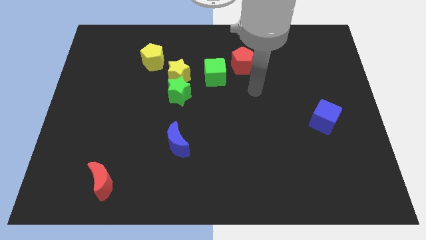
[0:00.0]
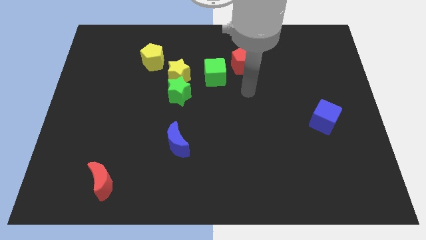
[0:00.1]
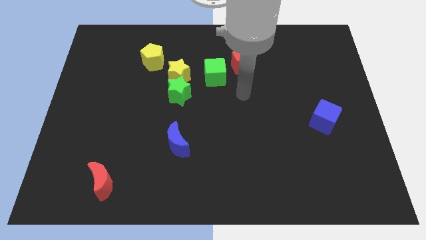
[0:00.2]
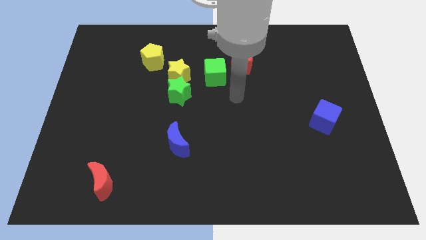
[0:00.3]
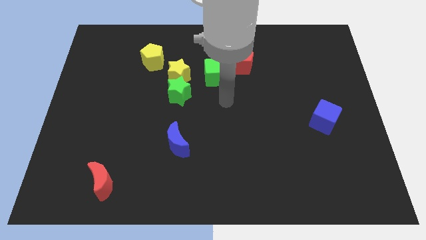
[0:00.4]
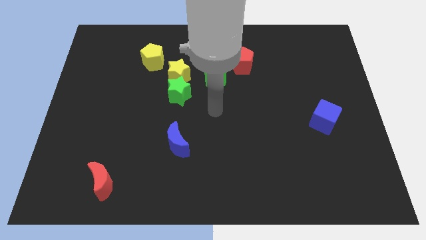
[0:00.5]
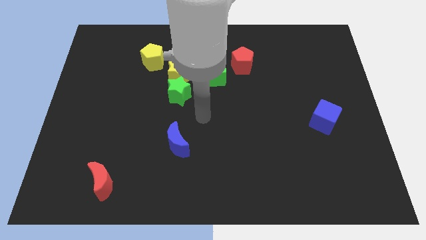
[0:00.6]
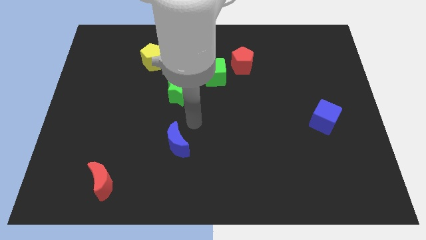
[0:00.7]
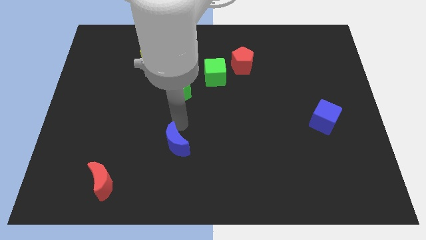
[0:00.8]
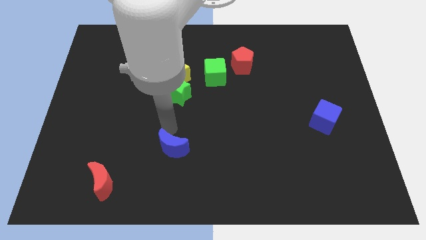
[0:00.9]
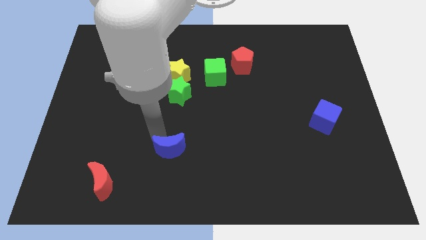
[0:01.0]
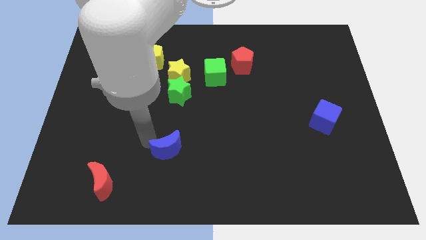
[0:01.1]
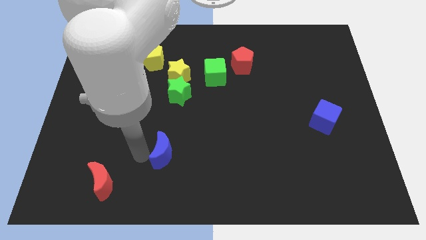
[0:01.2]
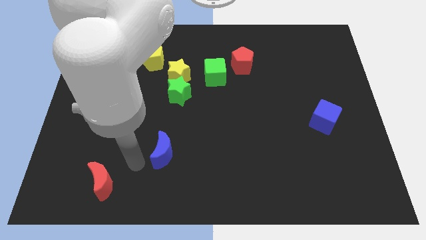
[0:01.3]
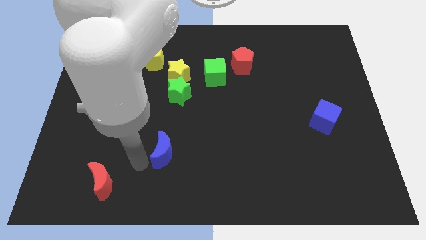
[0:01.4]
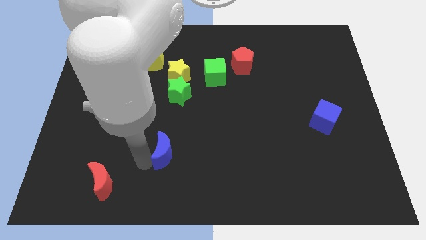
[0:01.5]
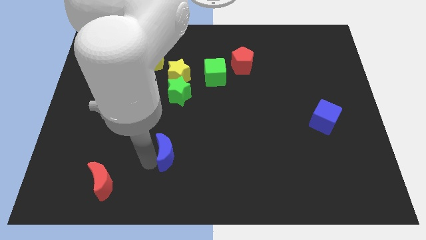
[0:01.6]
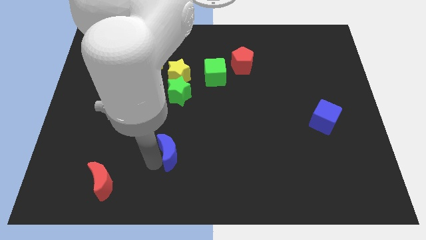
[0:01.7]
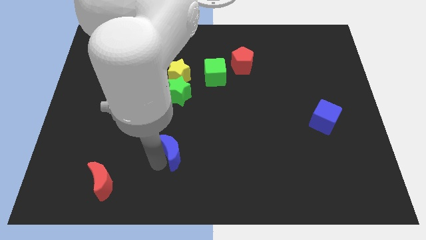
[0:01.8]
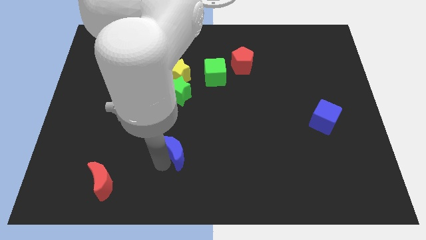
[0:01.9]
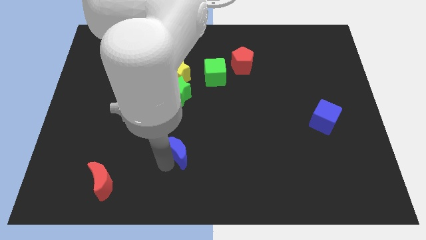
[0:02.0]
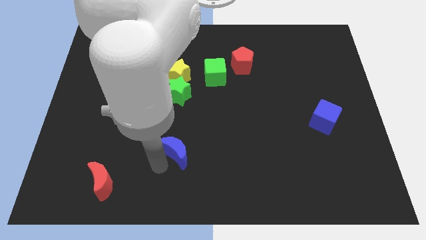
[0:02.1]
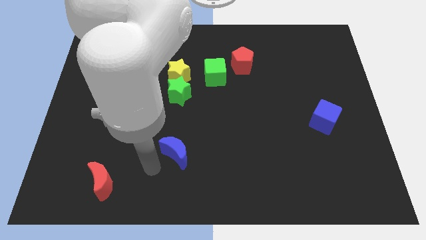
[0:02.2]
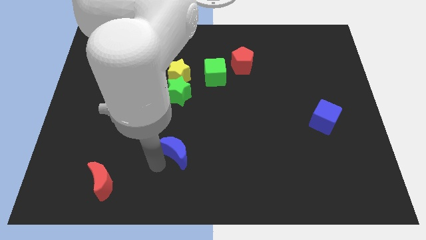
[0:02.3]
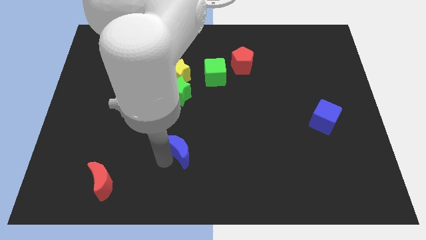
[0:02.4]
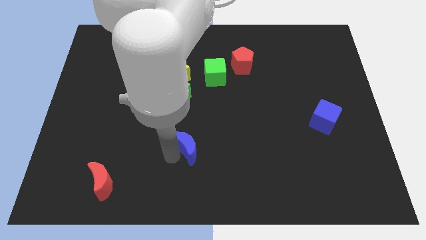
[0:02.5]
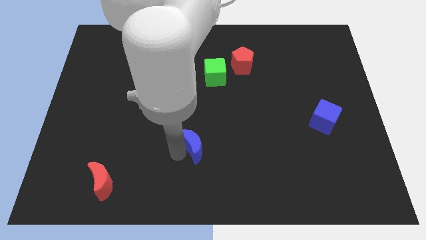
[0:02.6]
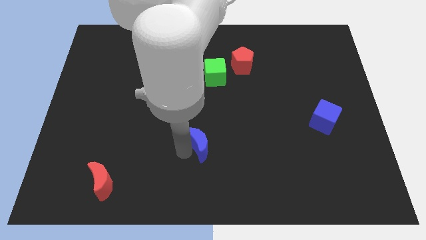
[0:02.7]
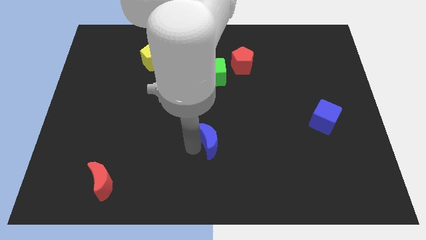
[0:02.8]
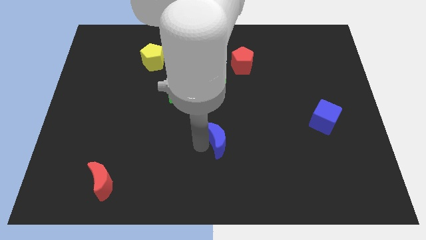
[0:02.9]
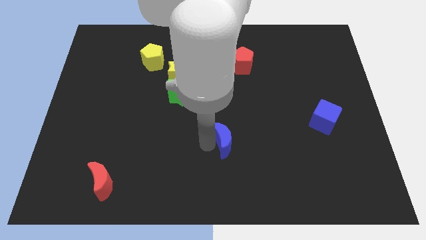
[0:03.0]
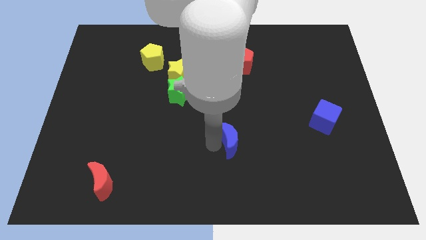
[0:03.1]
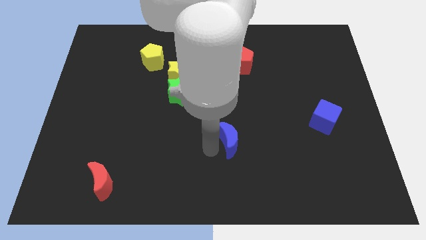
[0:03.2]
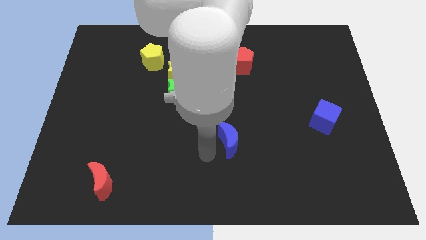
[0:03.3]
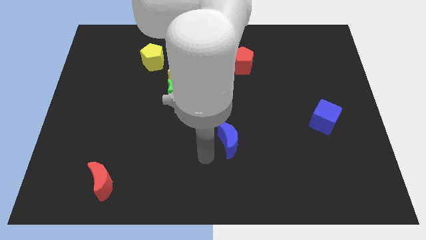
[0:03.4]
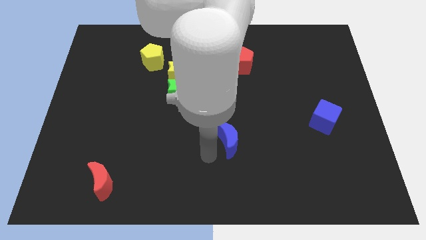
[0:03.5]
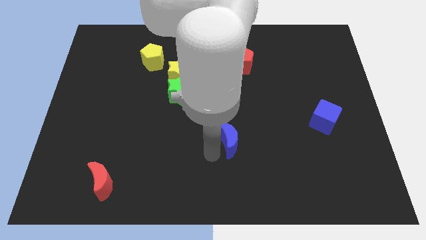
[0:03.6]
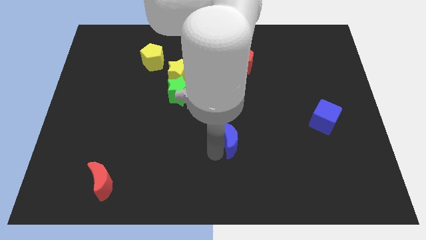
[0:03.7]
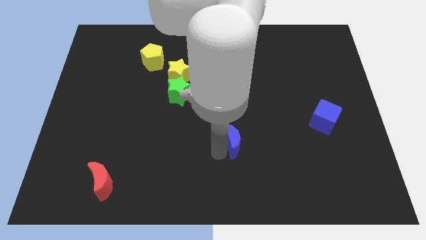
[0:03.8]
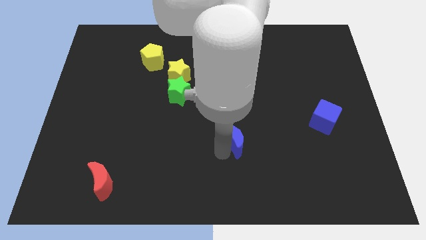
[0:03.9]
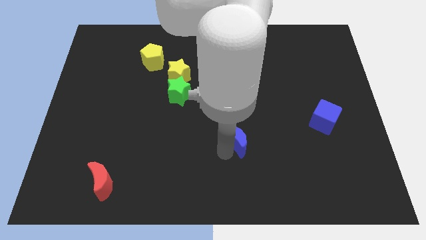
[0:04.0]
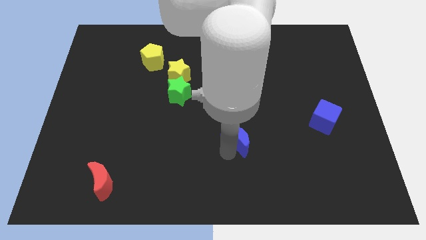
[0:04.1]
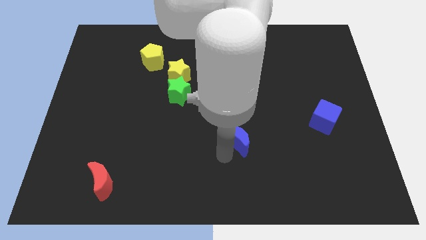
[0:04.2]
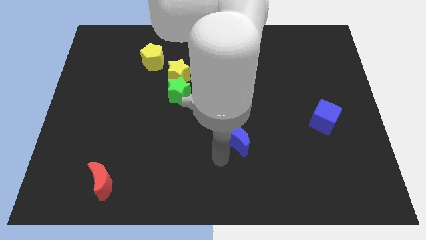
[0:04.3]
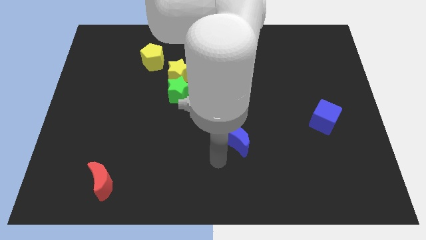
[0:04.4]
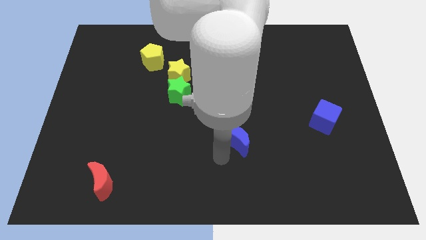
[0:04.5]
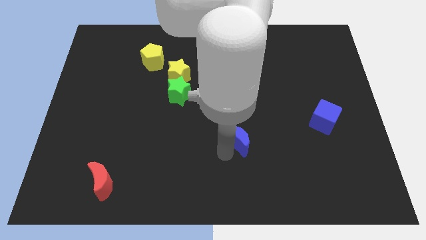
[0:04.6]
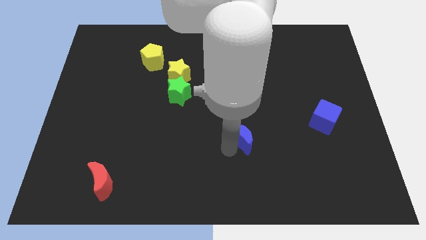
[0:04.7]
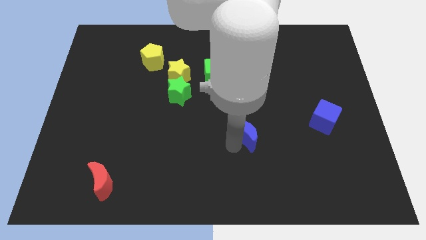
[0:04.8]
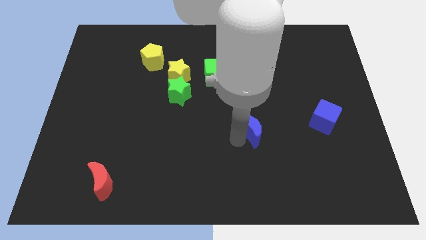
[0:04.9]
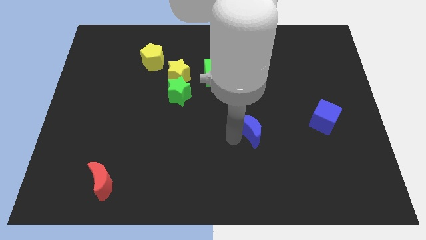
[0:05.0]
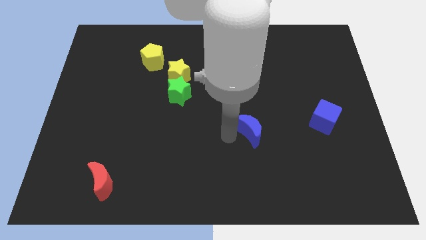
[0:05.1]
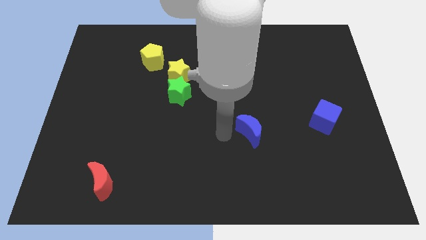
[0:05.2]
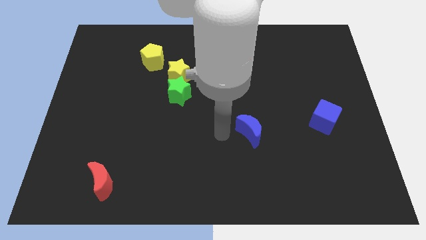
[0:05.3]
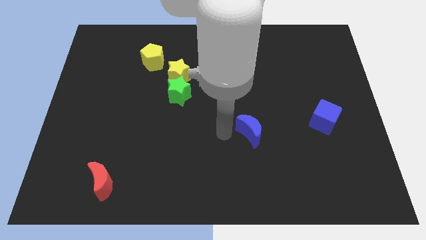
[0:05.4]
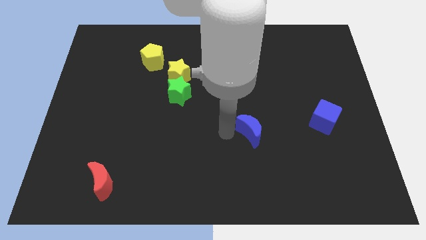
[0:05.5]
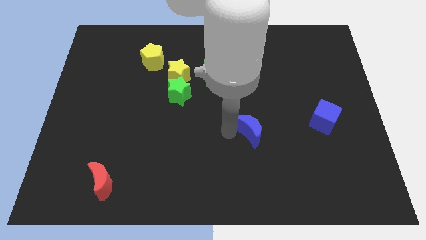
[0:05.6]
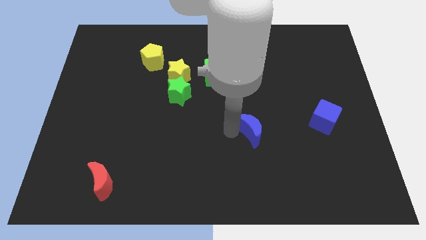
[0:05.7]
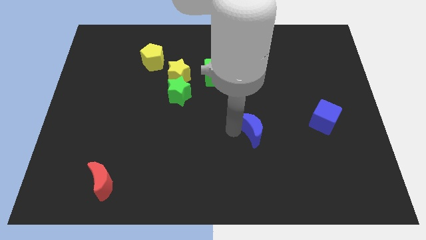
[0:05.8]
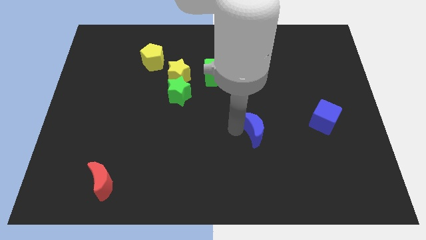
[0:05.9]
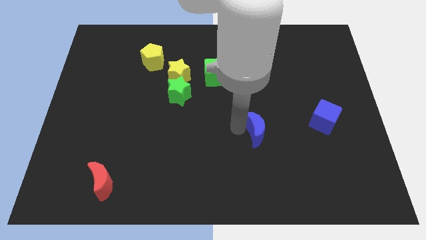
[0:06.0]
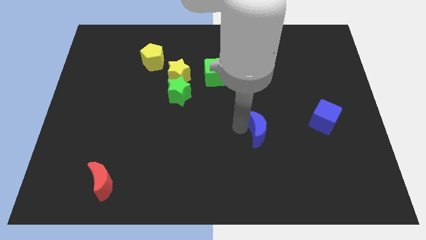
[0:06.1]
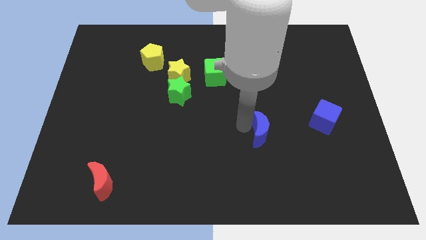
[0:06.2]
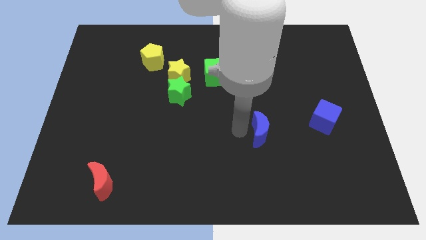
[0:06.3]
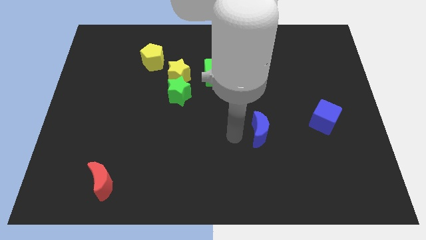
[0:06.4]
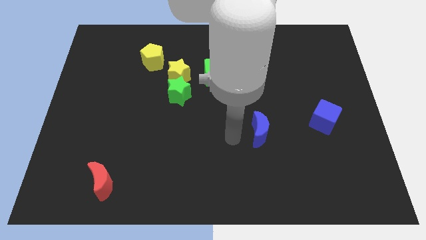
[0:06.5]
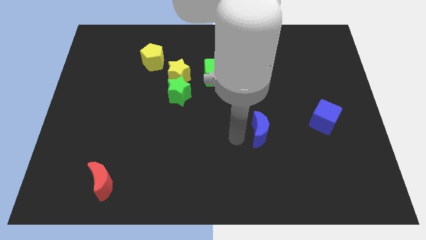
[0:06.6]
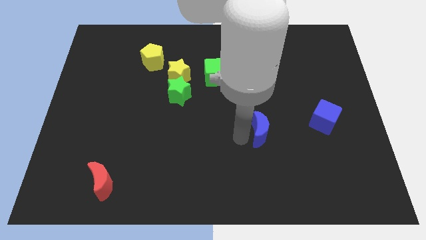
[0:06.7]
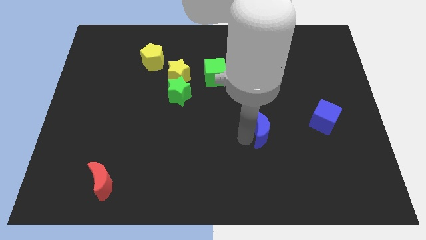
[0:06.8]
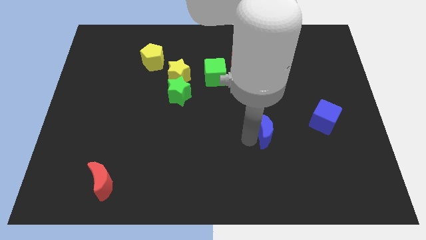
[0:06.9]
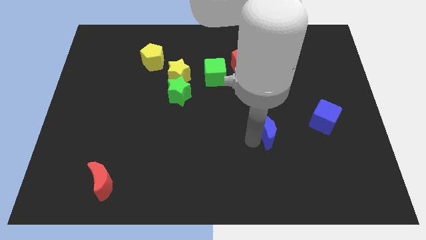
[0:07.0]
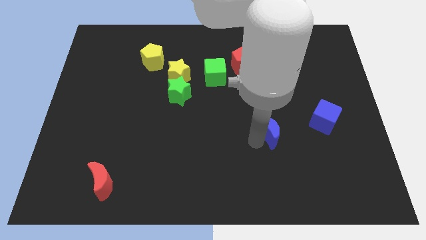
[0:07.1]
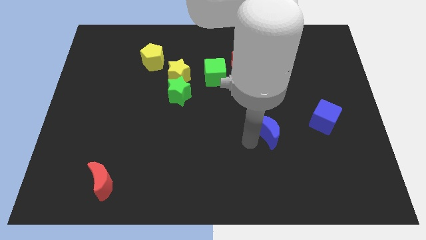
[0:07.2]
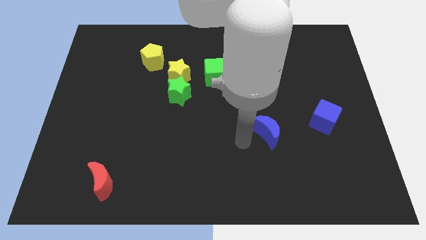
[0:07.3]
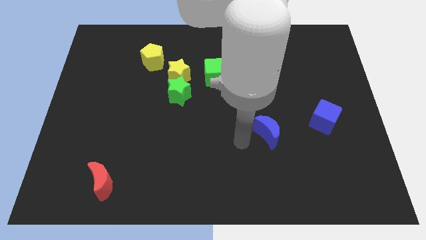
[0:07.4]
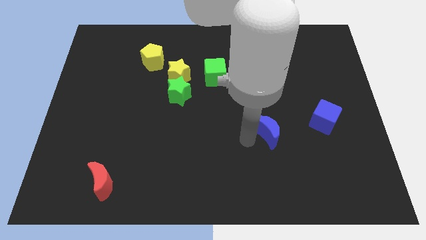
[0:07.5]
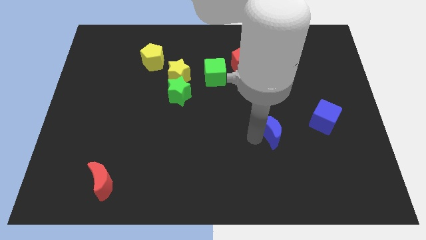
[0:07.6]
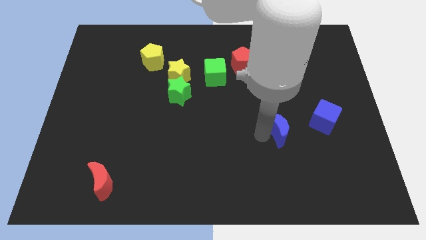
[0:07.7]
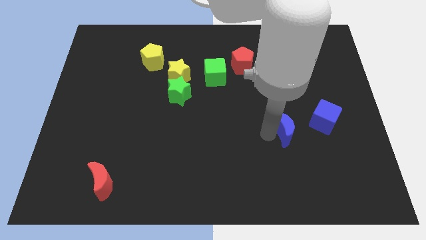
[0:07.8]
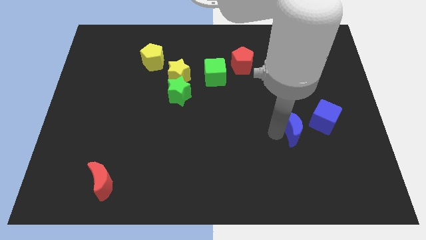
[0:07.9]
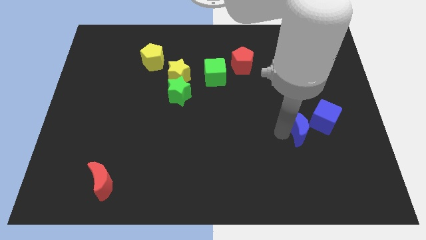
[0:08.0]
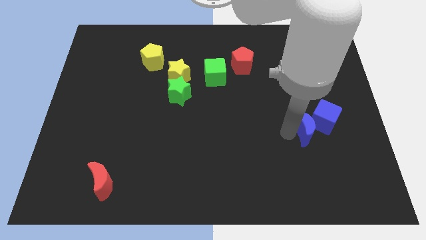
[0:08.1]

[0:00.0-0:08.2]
move the blue moon next to the blue cube
